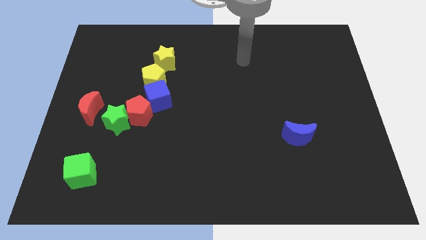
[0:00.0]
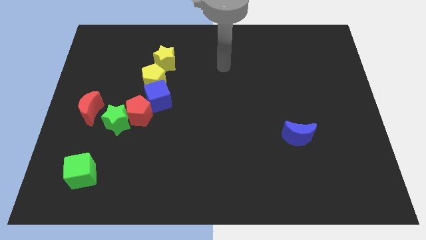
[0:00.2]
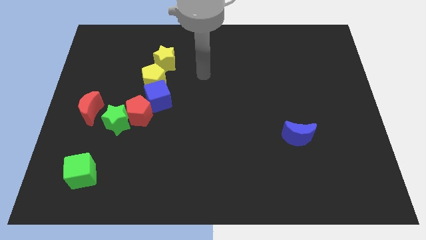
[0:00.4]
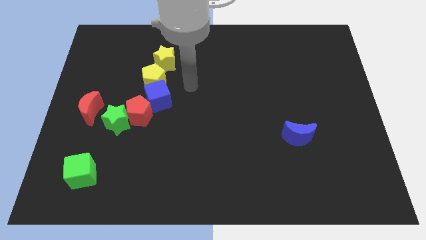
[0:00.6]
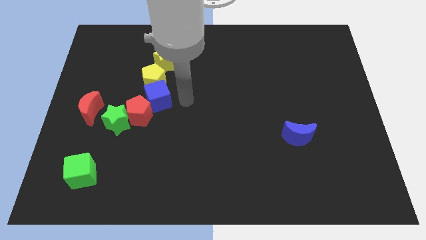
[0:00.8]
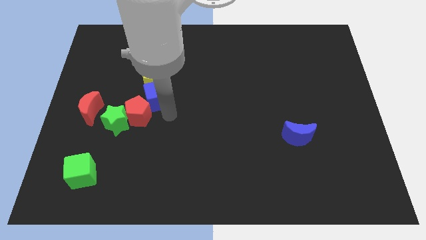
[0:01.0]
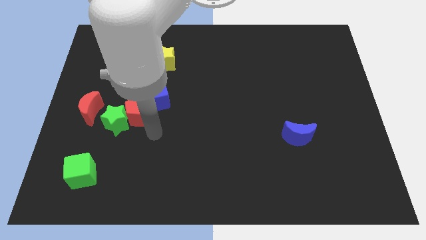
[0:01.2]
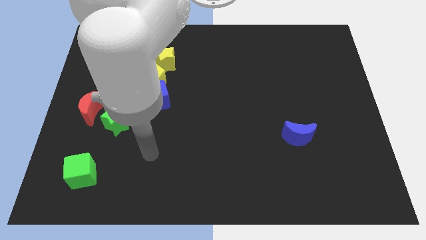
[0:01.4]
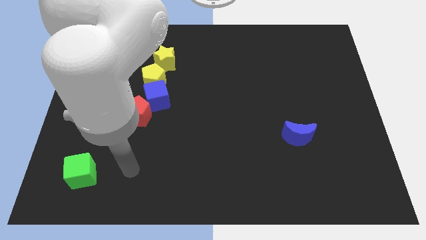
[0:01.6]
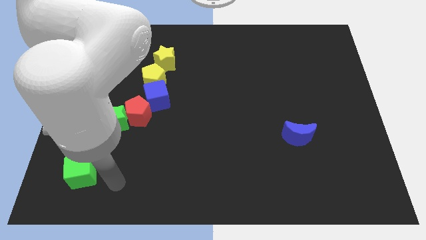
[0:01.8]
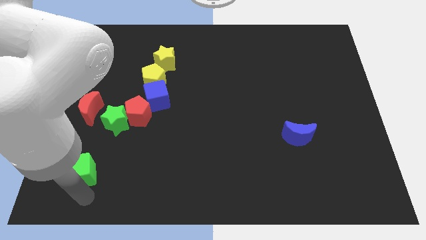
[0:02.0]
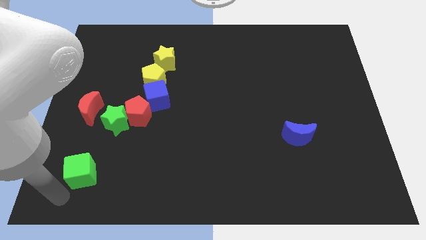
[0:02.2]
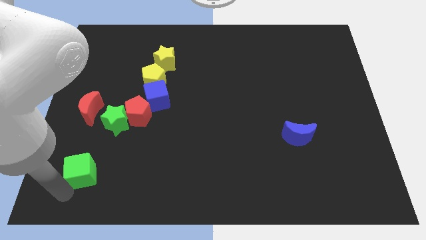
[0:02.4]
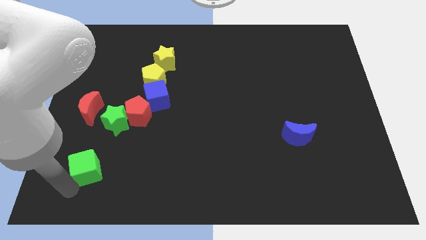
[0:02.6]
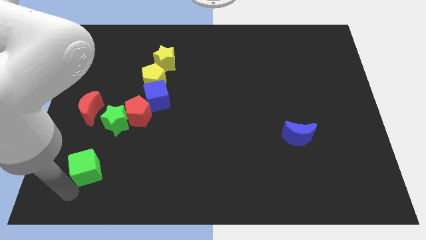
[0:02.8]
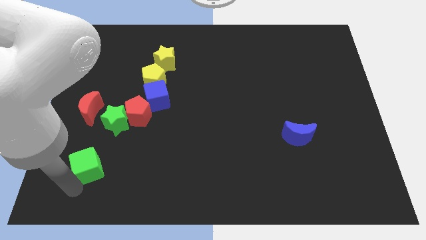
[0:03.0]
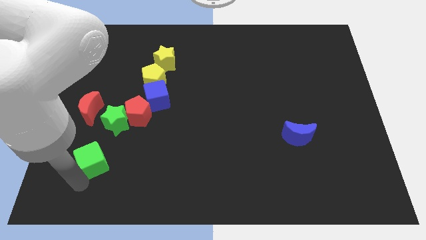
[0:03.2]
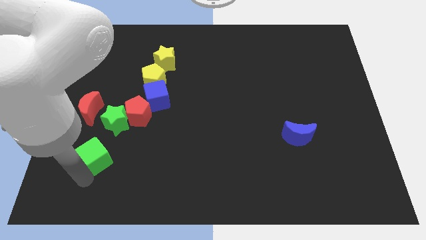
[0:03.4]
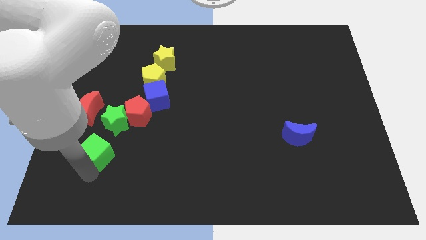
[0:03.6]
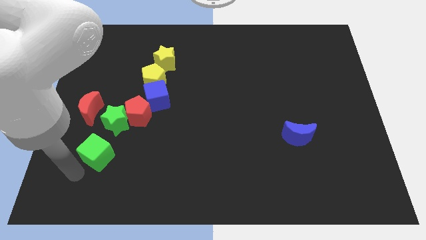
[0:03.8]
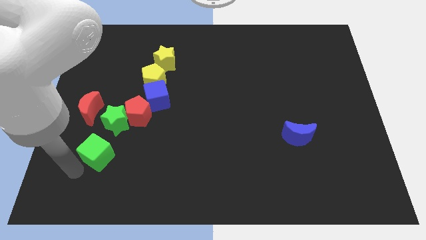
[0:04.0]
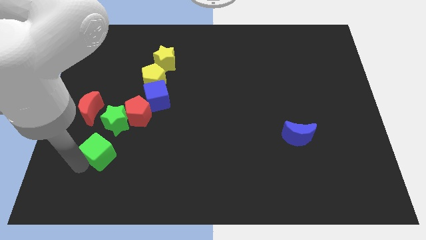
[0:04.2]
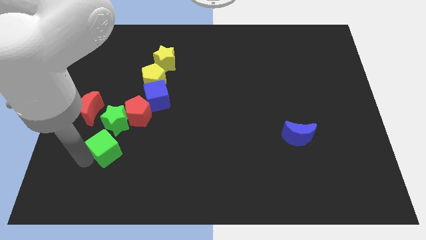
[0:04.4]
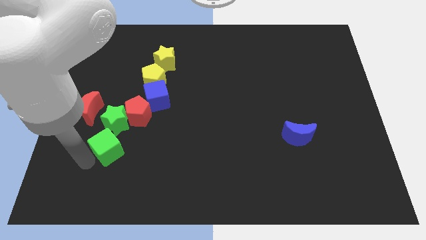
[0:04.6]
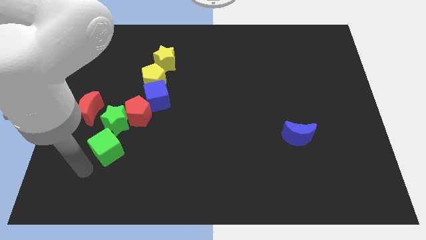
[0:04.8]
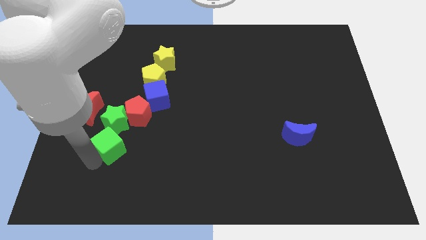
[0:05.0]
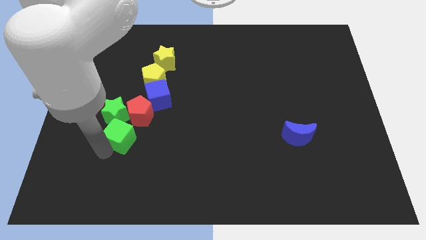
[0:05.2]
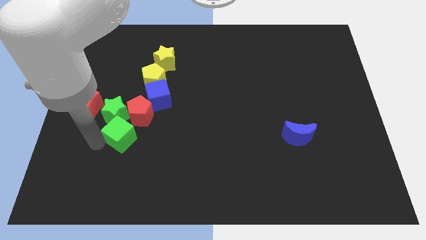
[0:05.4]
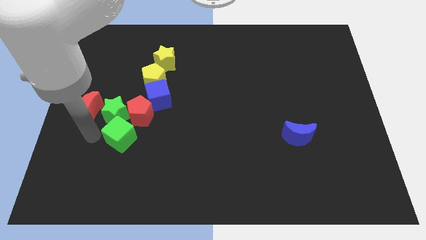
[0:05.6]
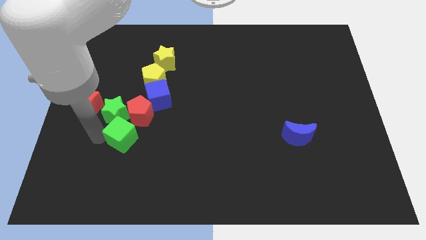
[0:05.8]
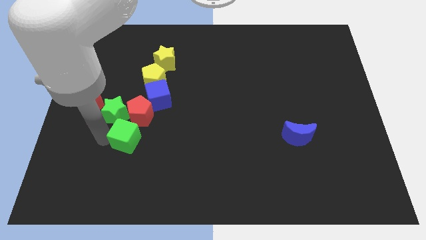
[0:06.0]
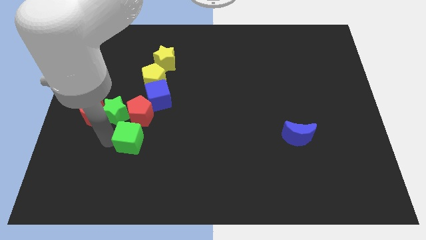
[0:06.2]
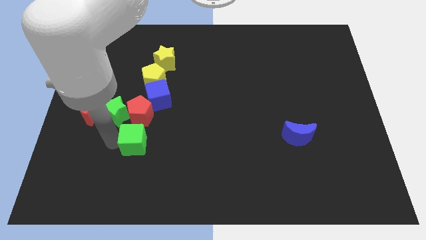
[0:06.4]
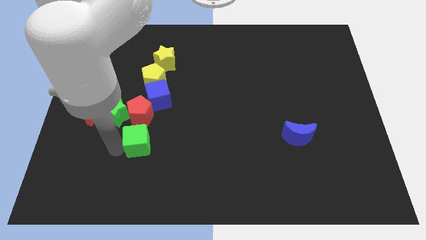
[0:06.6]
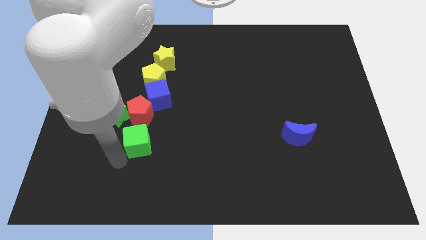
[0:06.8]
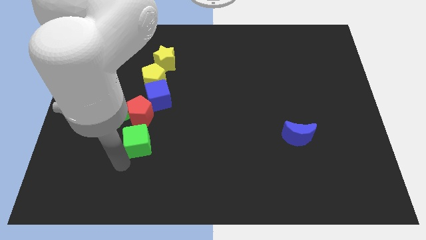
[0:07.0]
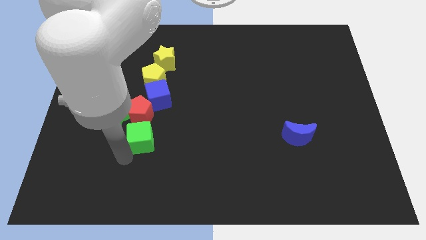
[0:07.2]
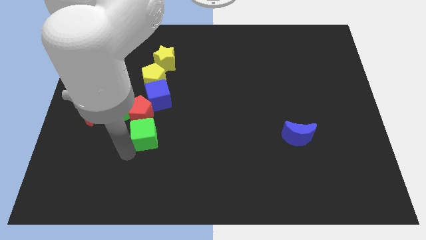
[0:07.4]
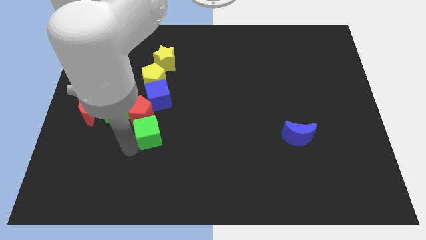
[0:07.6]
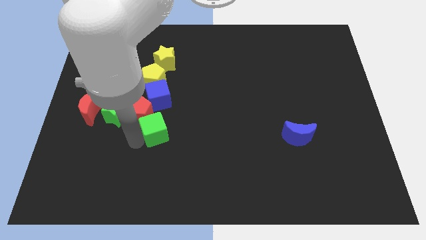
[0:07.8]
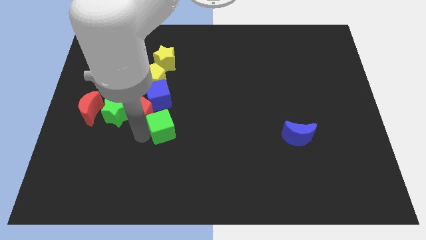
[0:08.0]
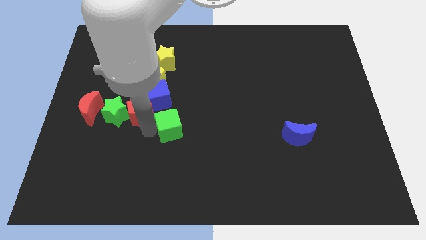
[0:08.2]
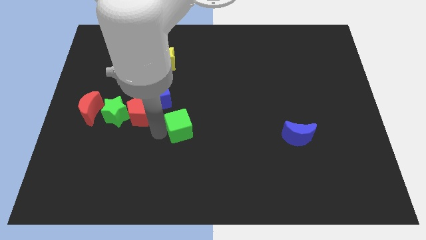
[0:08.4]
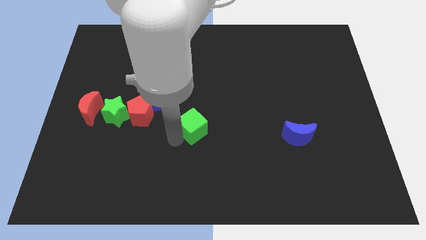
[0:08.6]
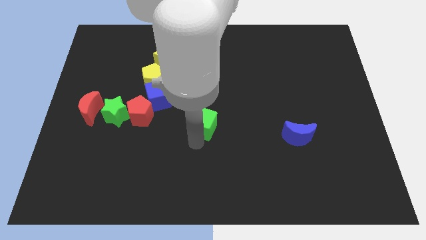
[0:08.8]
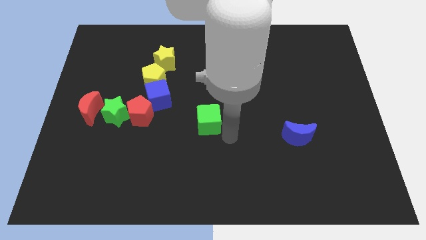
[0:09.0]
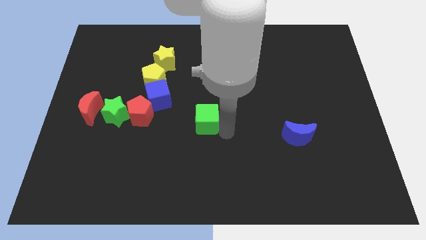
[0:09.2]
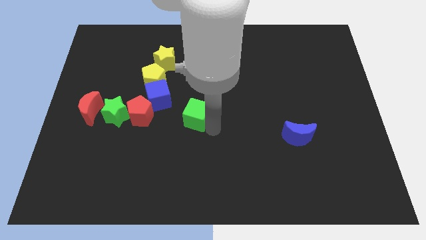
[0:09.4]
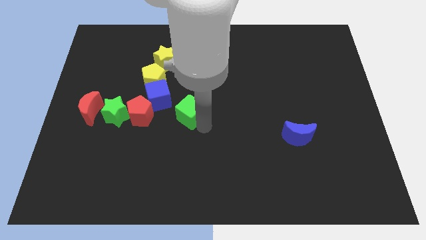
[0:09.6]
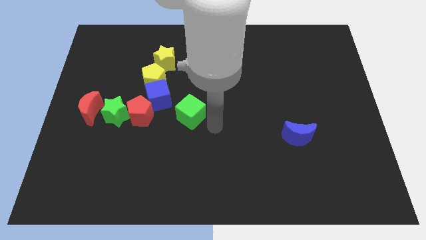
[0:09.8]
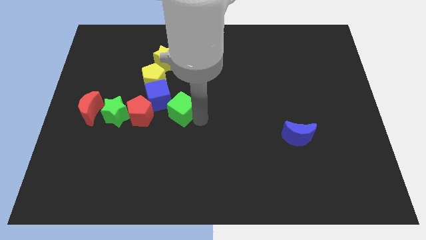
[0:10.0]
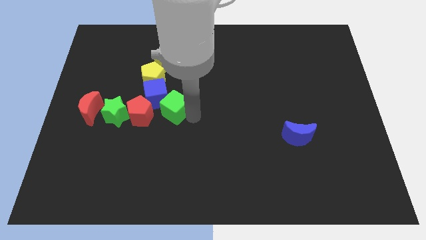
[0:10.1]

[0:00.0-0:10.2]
slide the green cube towards the blue cube

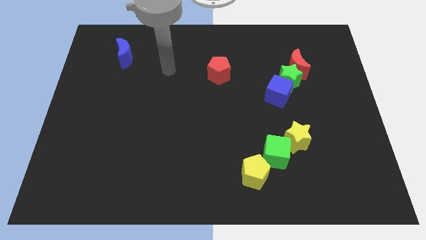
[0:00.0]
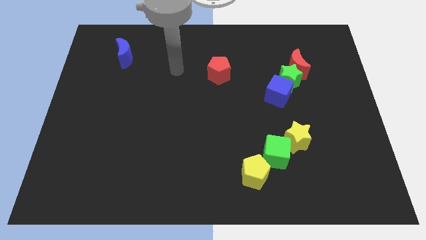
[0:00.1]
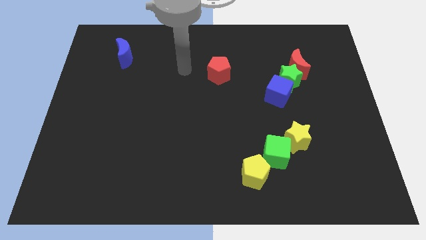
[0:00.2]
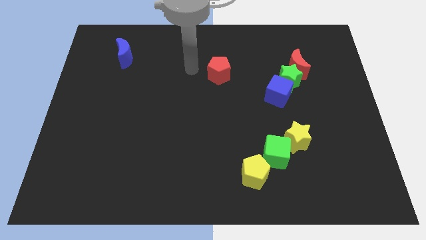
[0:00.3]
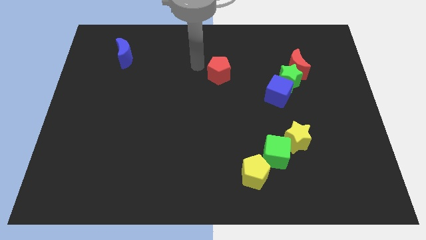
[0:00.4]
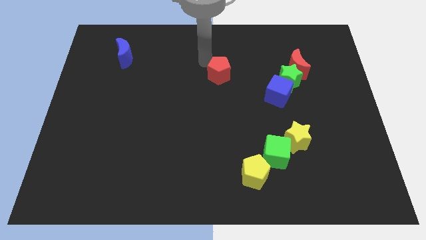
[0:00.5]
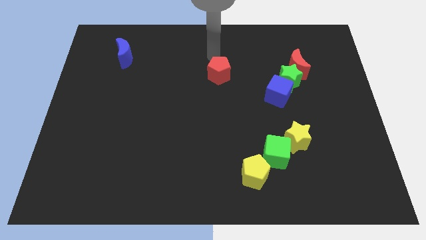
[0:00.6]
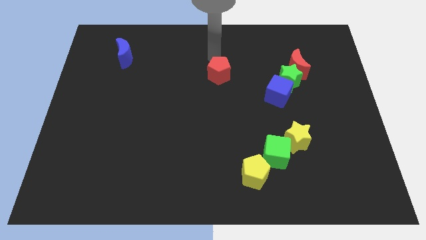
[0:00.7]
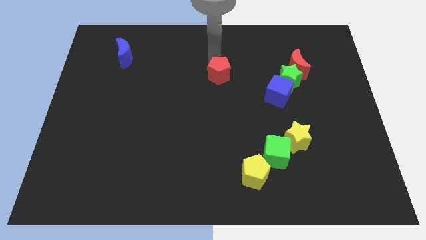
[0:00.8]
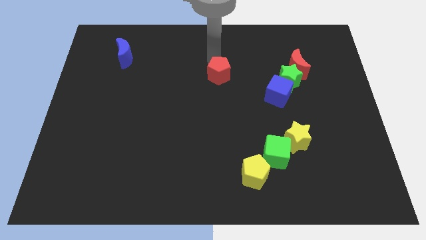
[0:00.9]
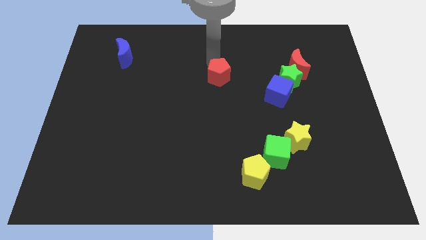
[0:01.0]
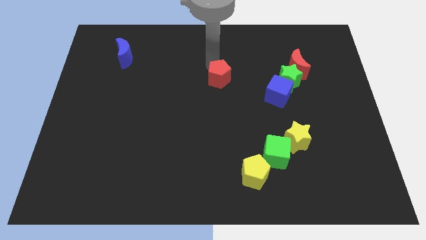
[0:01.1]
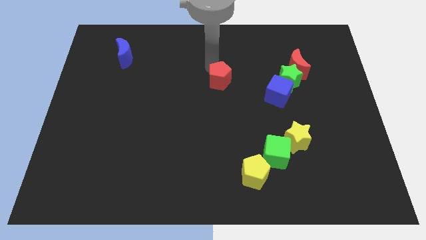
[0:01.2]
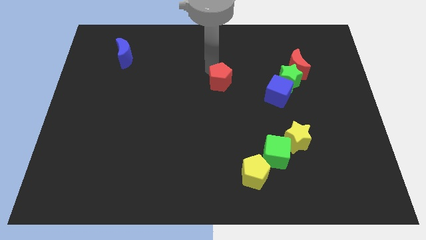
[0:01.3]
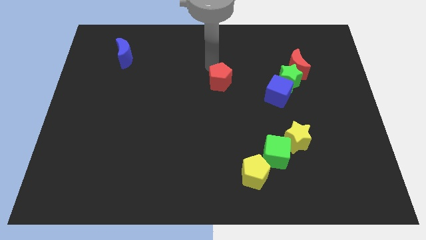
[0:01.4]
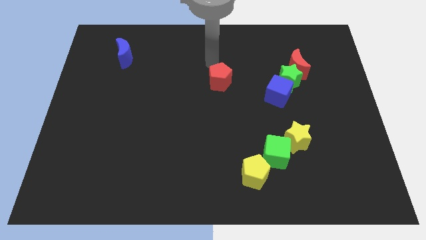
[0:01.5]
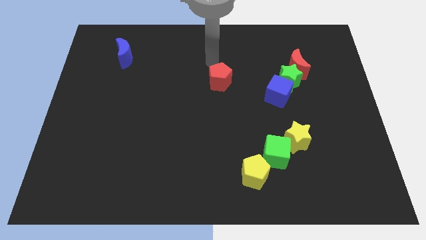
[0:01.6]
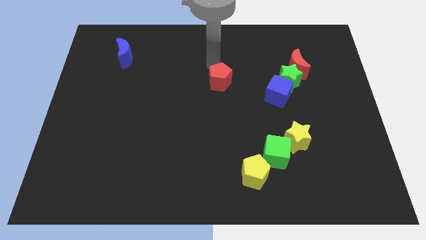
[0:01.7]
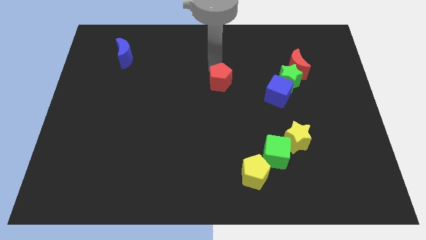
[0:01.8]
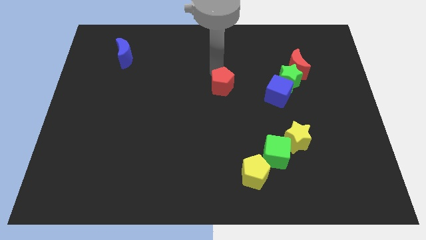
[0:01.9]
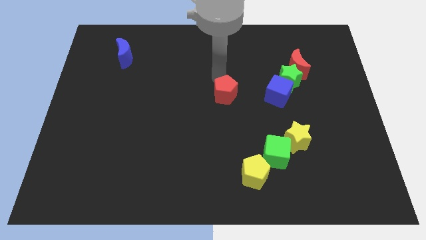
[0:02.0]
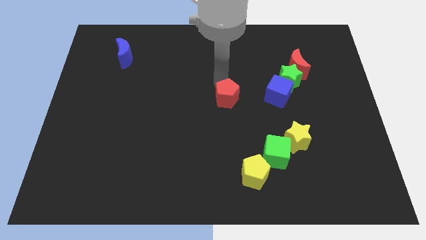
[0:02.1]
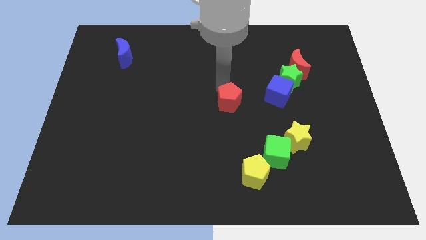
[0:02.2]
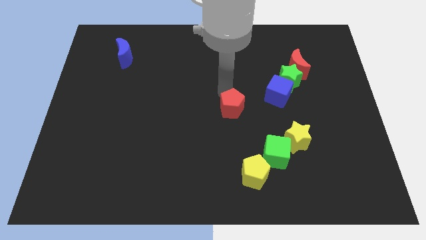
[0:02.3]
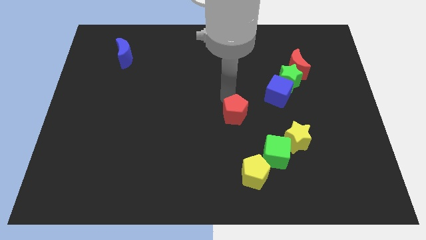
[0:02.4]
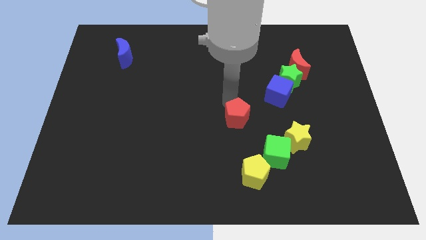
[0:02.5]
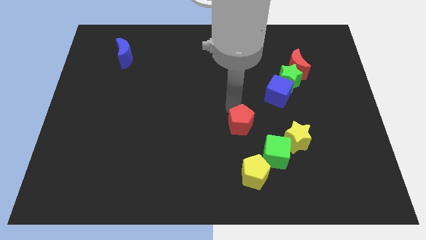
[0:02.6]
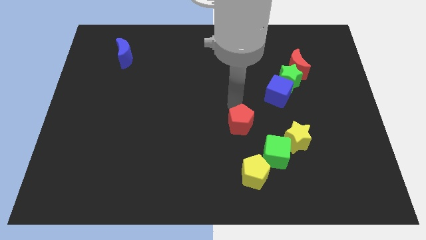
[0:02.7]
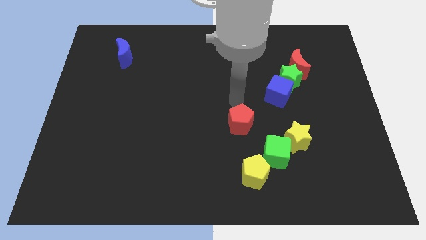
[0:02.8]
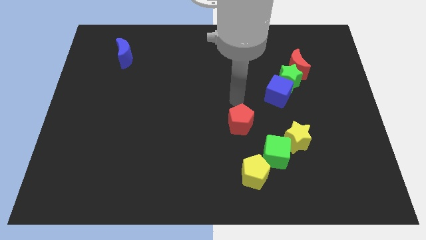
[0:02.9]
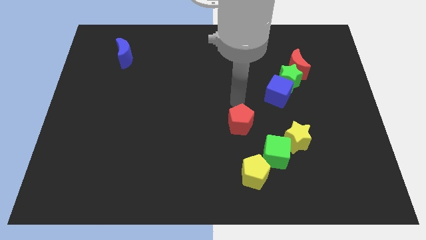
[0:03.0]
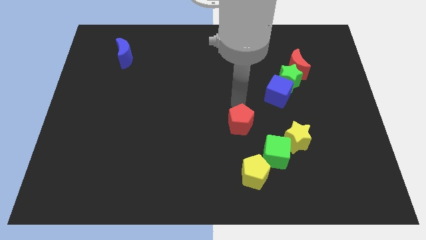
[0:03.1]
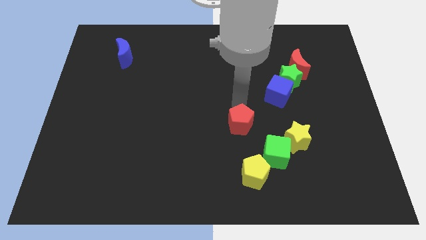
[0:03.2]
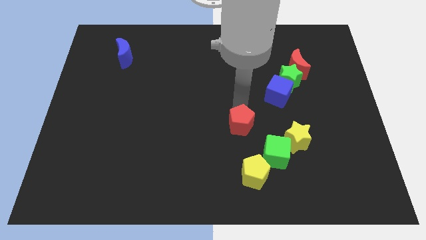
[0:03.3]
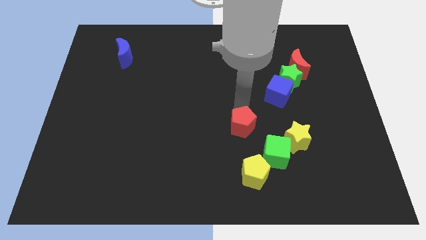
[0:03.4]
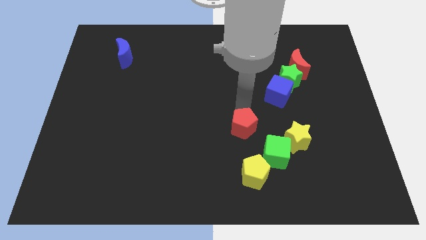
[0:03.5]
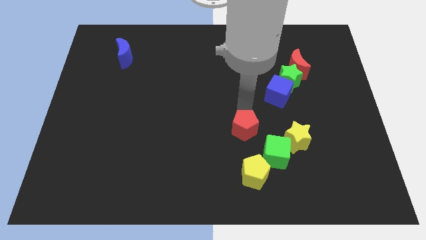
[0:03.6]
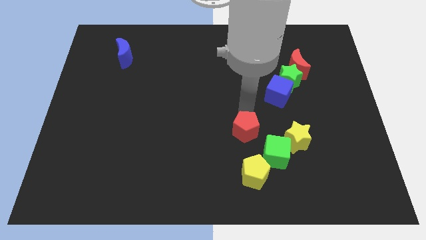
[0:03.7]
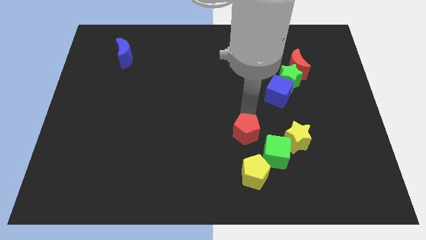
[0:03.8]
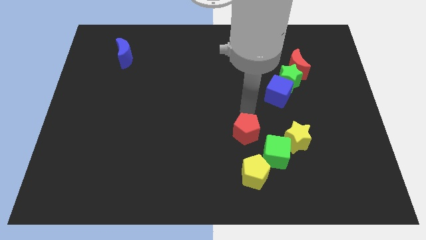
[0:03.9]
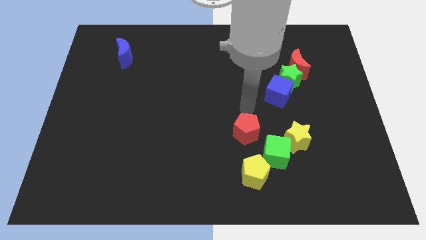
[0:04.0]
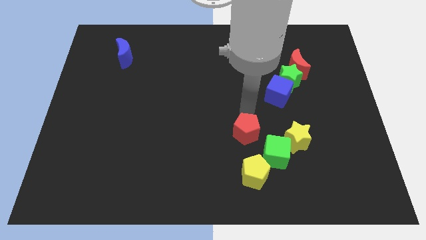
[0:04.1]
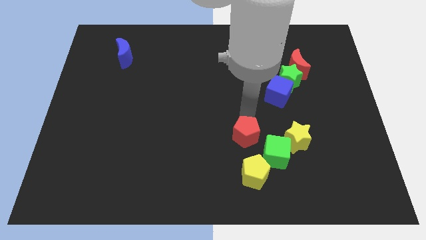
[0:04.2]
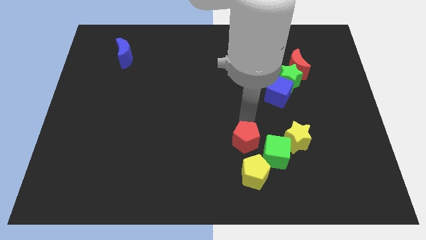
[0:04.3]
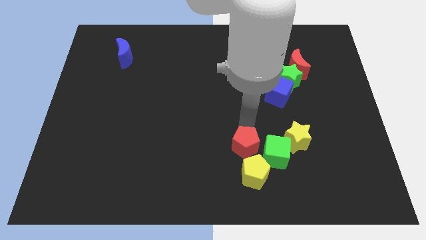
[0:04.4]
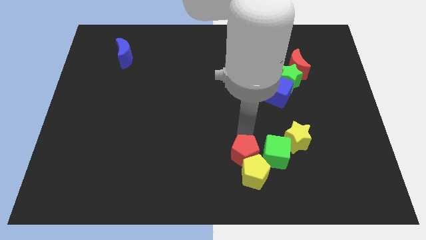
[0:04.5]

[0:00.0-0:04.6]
move the red pentagon to the yellow pentagon
